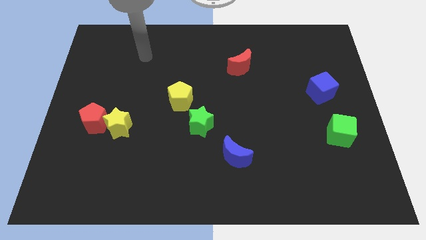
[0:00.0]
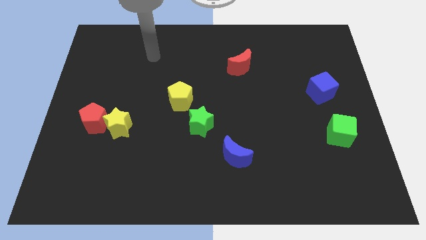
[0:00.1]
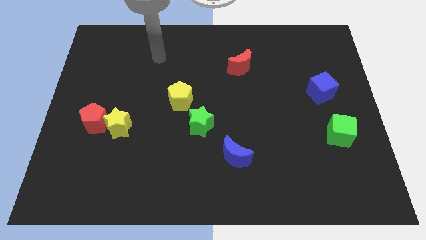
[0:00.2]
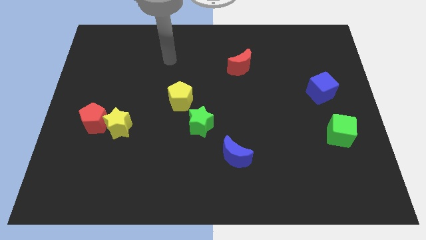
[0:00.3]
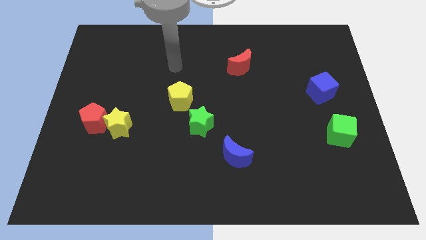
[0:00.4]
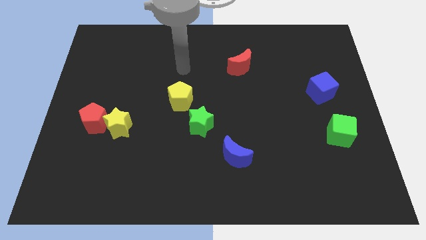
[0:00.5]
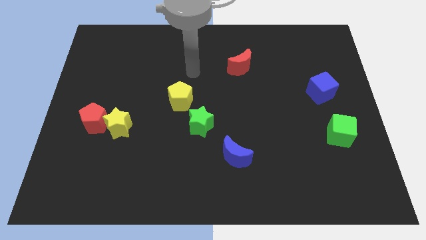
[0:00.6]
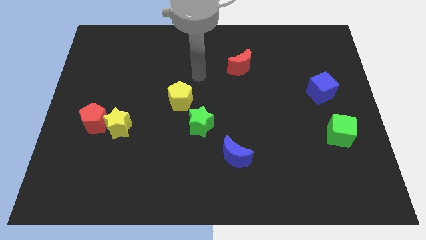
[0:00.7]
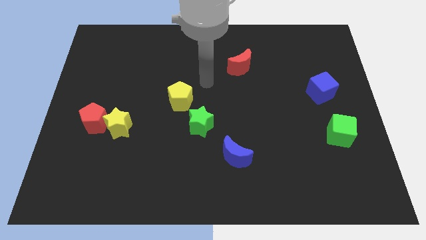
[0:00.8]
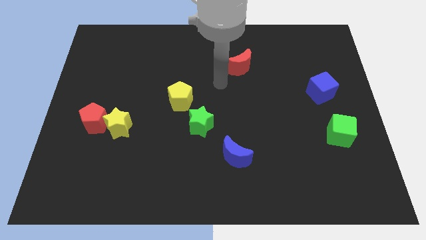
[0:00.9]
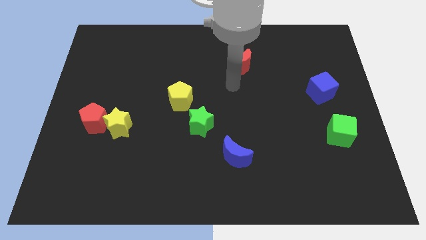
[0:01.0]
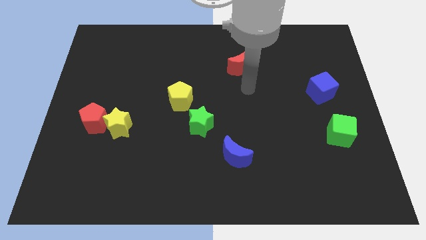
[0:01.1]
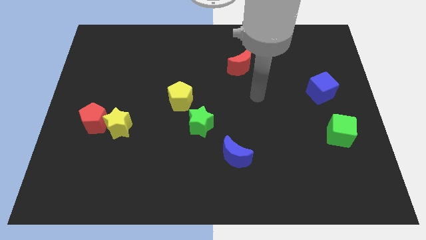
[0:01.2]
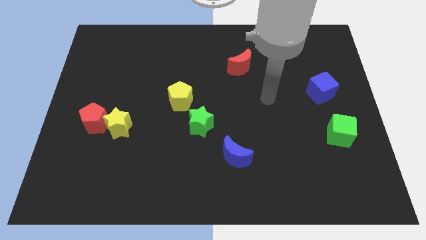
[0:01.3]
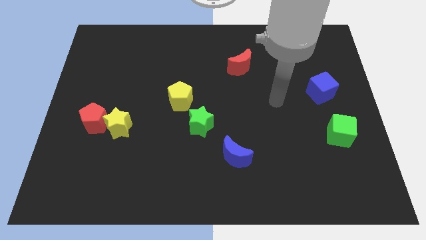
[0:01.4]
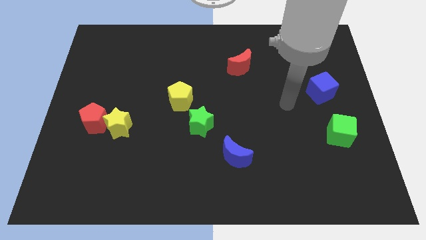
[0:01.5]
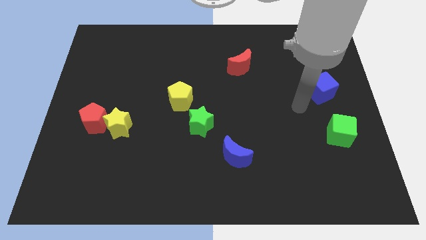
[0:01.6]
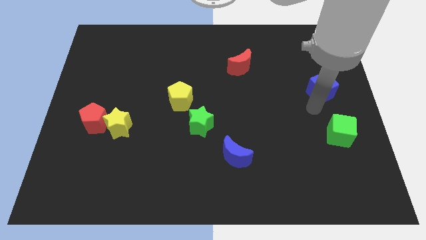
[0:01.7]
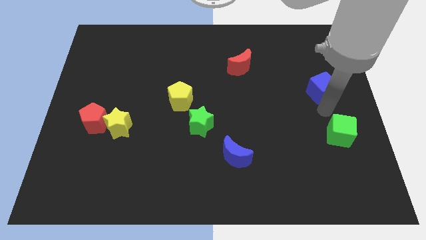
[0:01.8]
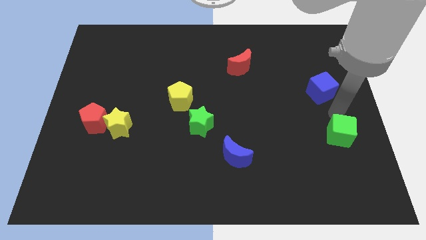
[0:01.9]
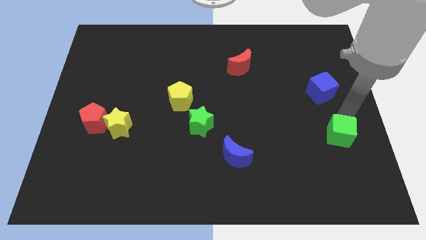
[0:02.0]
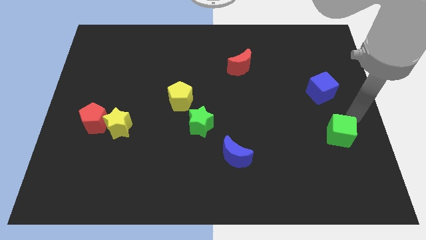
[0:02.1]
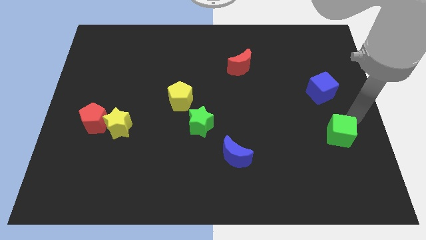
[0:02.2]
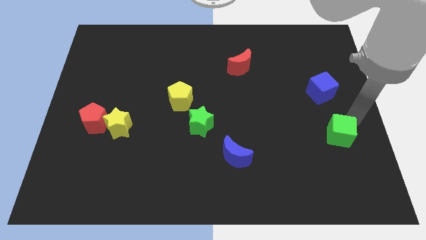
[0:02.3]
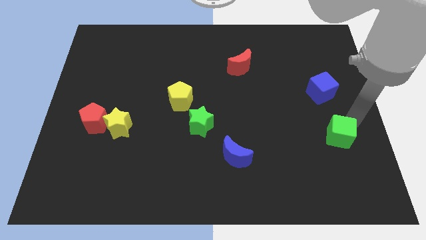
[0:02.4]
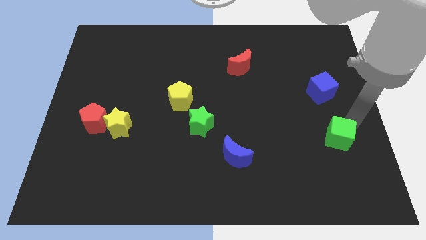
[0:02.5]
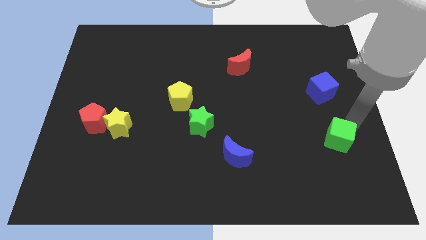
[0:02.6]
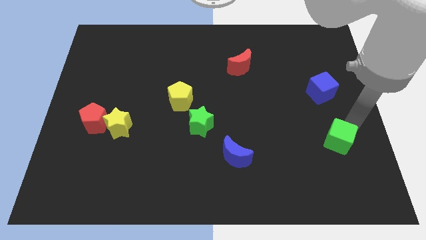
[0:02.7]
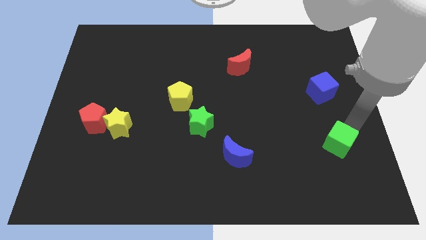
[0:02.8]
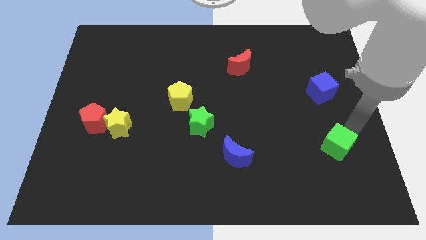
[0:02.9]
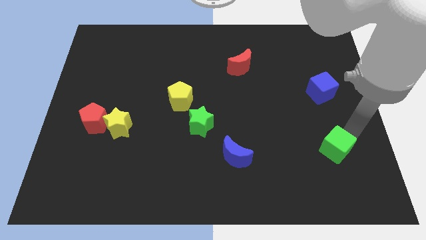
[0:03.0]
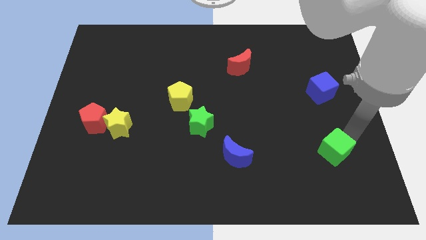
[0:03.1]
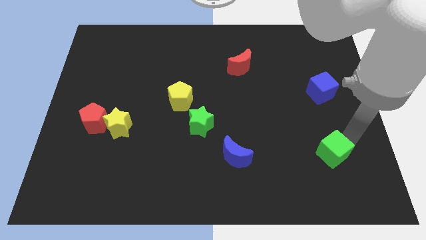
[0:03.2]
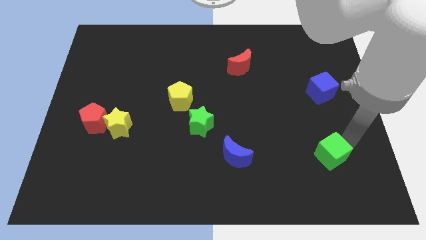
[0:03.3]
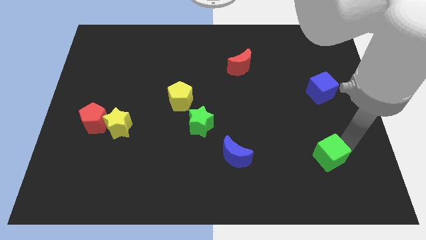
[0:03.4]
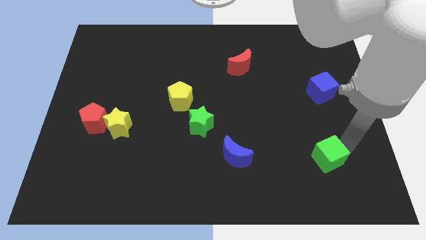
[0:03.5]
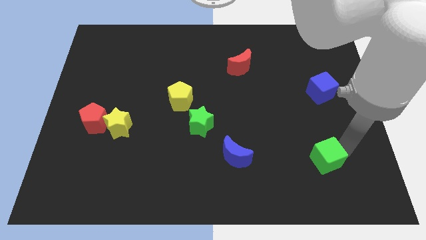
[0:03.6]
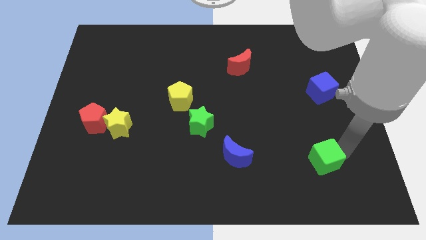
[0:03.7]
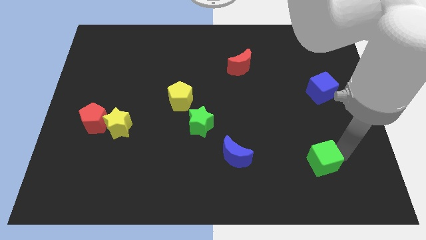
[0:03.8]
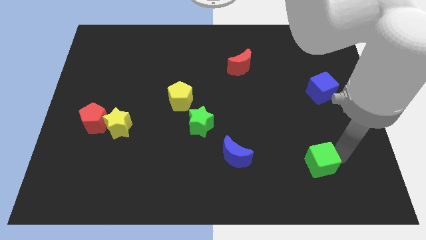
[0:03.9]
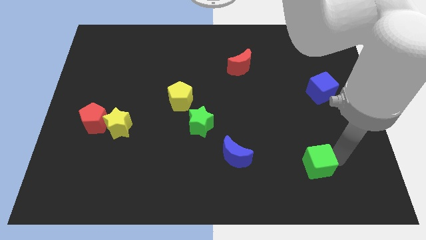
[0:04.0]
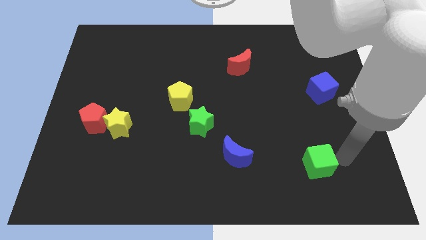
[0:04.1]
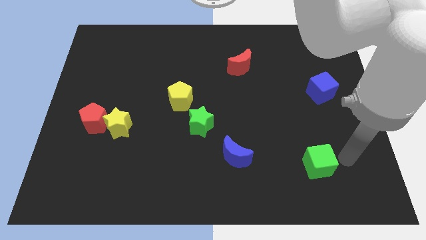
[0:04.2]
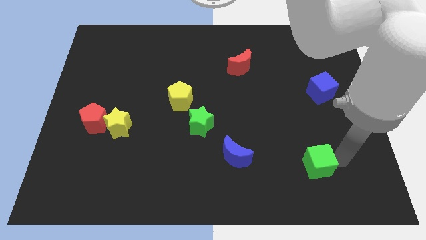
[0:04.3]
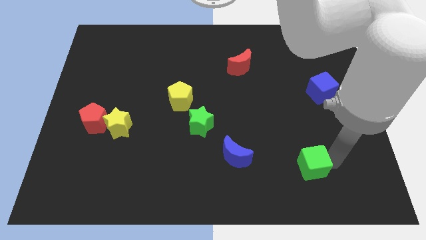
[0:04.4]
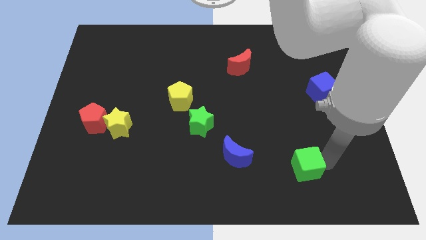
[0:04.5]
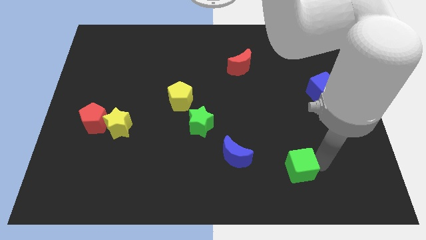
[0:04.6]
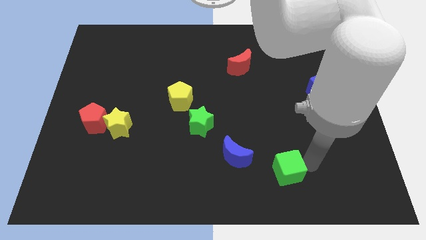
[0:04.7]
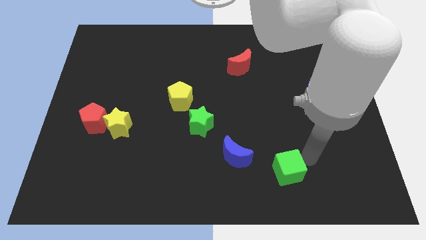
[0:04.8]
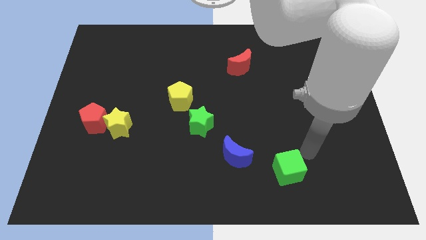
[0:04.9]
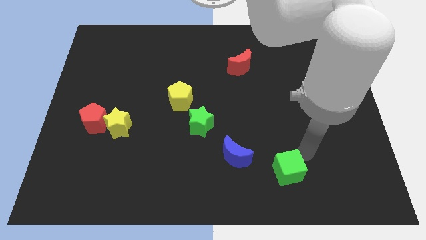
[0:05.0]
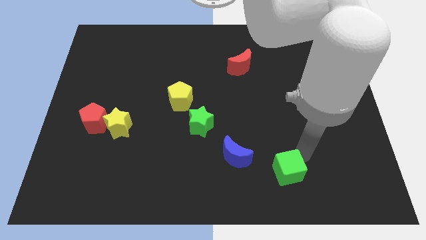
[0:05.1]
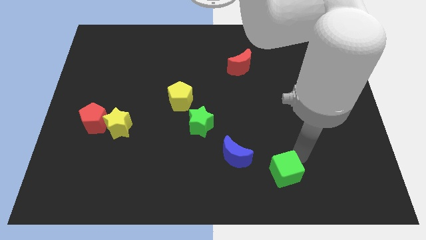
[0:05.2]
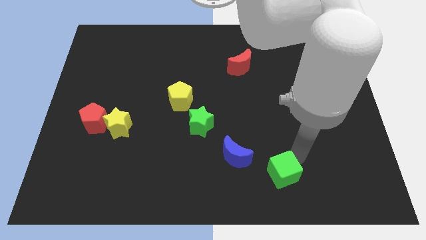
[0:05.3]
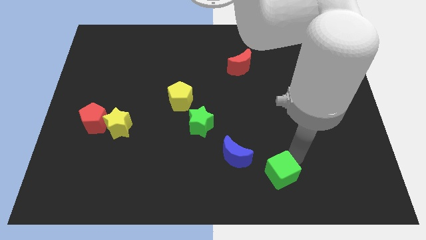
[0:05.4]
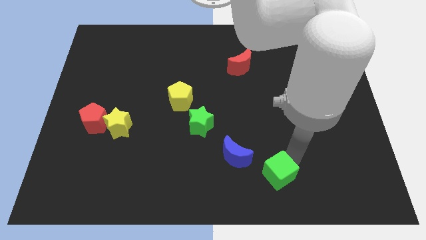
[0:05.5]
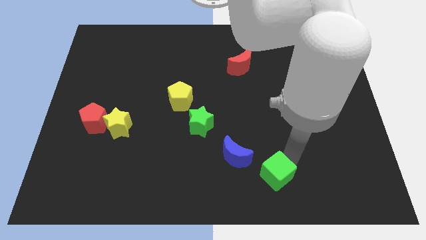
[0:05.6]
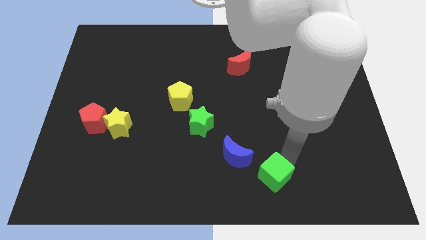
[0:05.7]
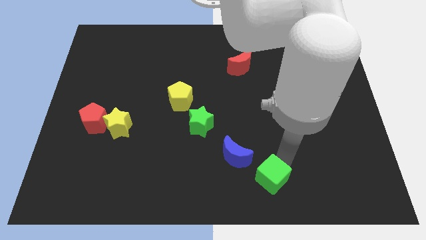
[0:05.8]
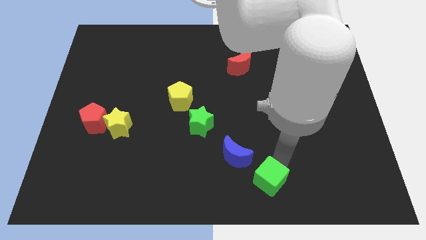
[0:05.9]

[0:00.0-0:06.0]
put the green cube to the bottom

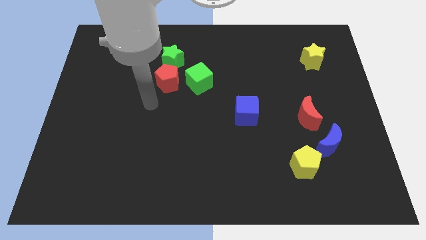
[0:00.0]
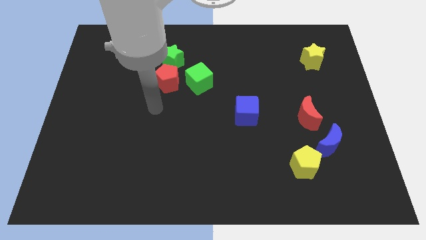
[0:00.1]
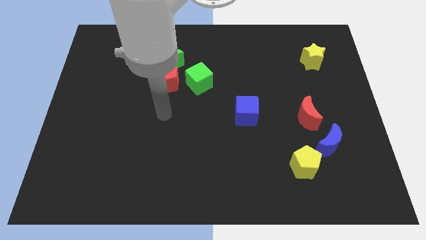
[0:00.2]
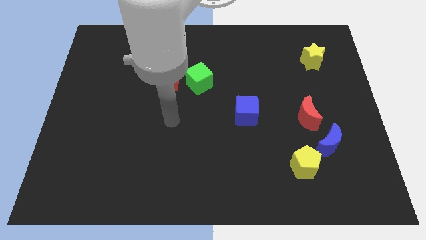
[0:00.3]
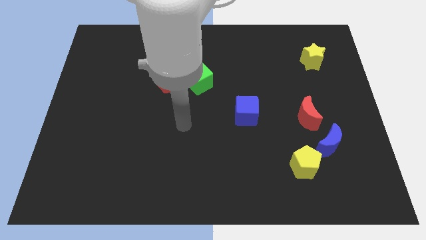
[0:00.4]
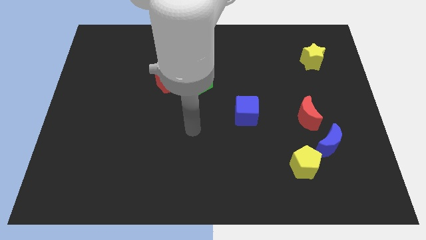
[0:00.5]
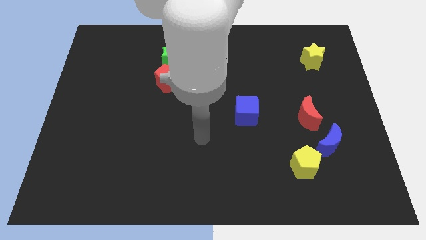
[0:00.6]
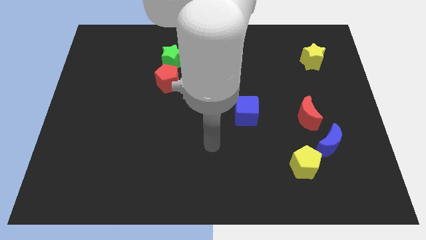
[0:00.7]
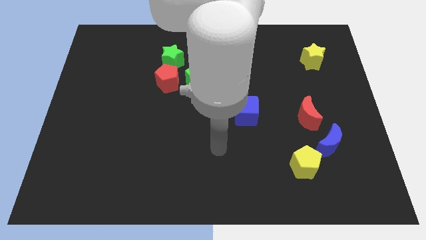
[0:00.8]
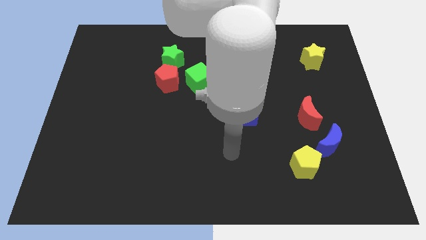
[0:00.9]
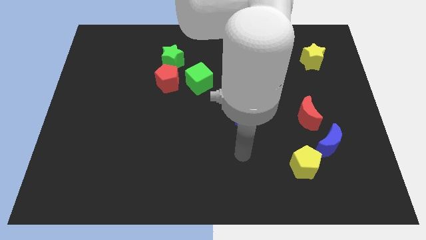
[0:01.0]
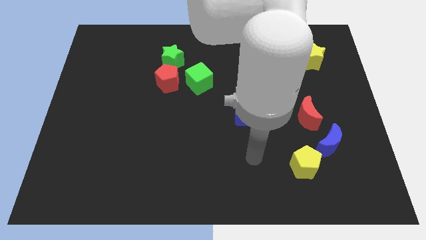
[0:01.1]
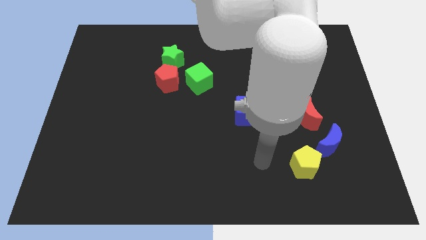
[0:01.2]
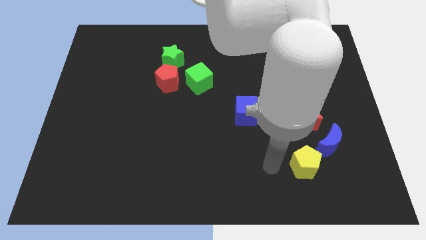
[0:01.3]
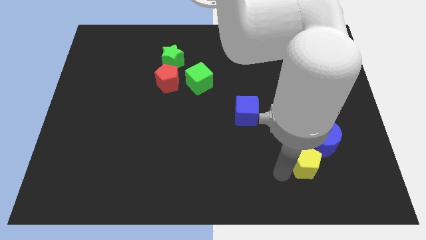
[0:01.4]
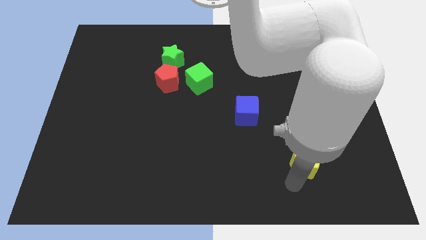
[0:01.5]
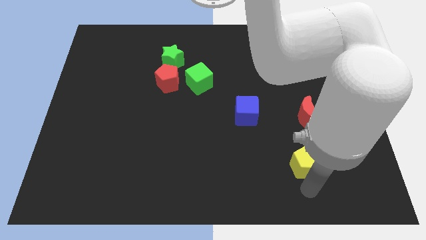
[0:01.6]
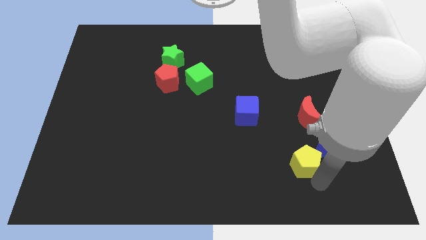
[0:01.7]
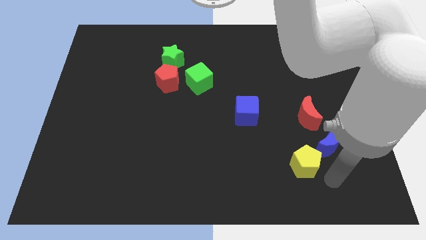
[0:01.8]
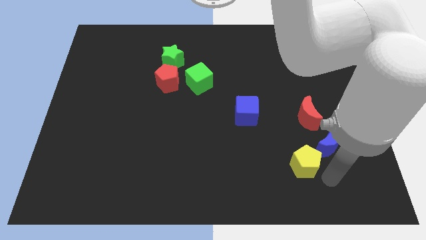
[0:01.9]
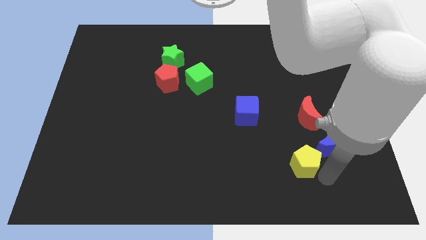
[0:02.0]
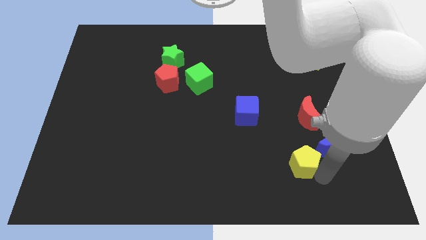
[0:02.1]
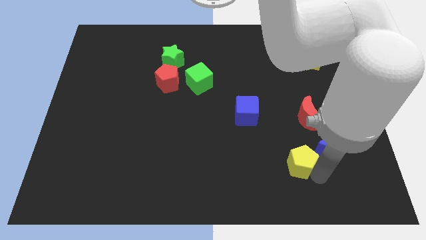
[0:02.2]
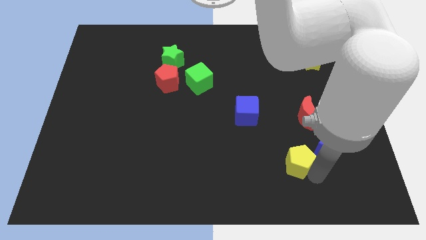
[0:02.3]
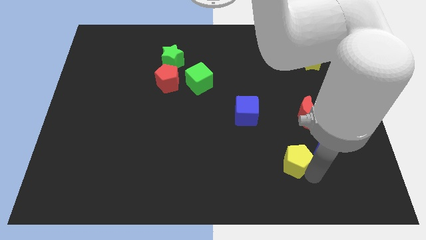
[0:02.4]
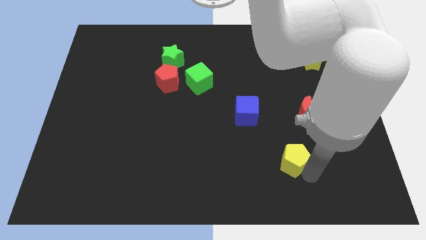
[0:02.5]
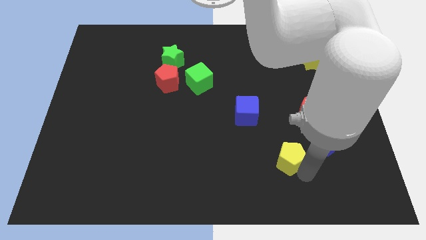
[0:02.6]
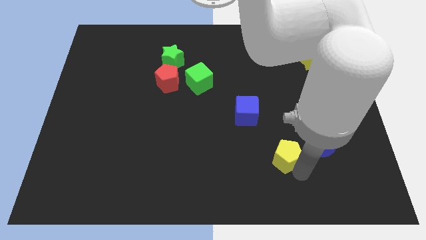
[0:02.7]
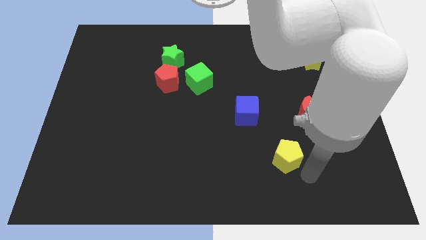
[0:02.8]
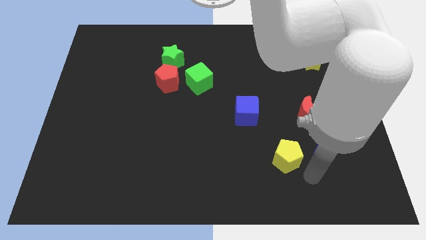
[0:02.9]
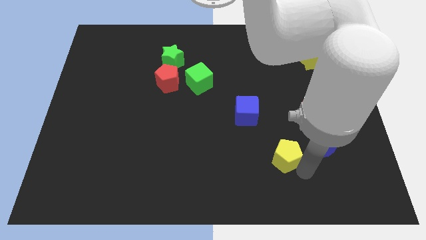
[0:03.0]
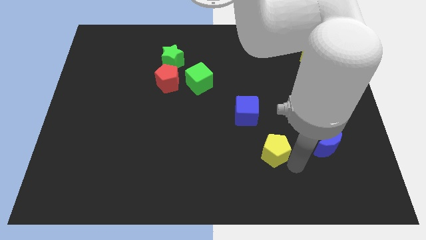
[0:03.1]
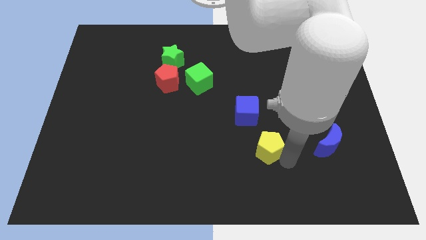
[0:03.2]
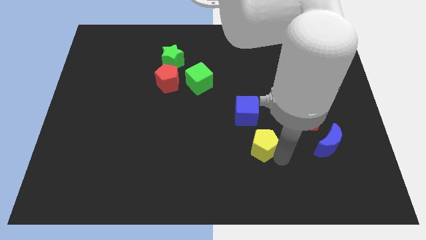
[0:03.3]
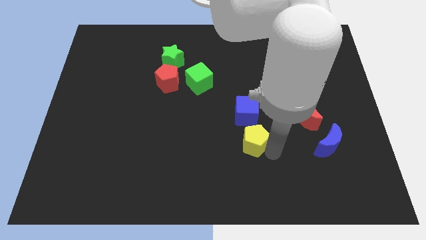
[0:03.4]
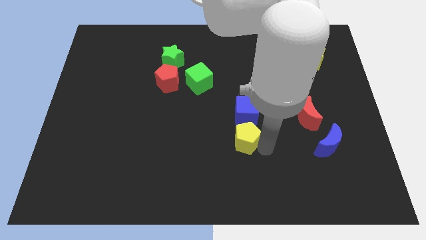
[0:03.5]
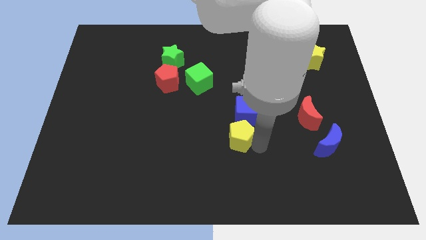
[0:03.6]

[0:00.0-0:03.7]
put the yellow pentagon to the center of the board
